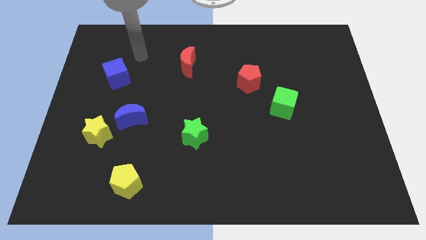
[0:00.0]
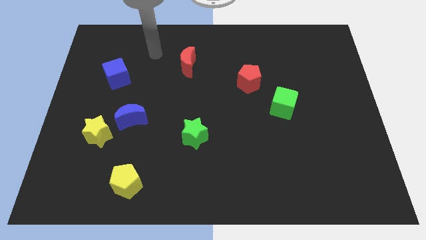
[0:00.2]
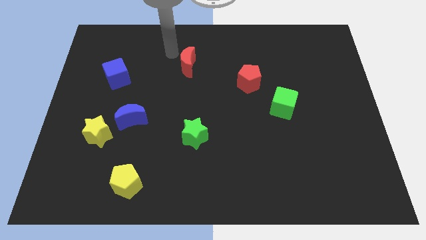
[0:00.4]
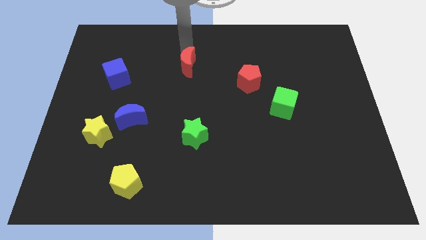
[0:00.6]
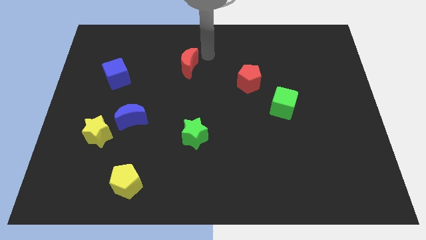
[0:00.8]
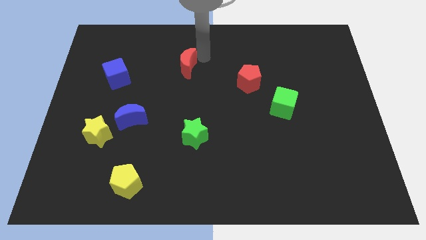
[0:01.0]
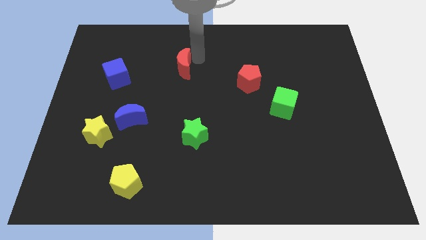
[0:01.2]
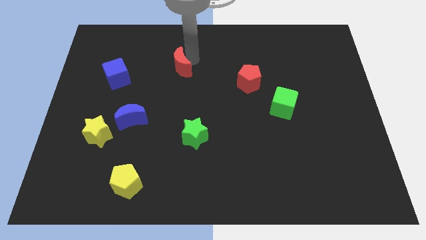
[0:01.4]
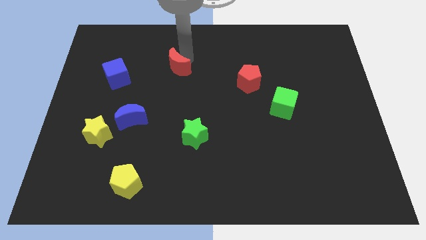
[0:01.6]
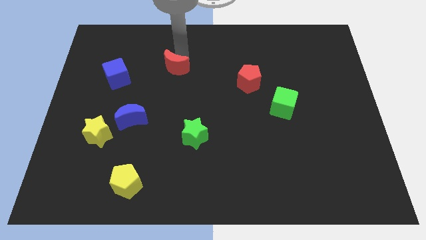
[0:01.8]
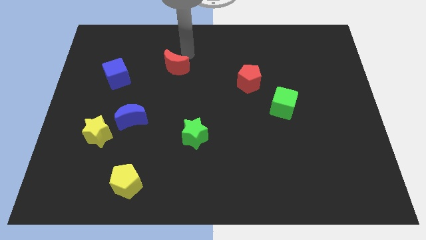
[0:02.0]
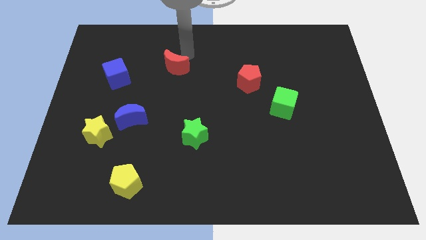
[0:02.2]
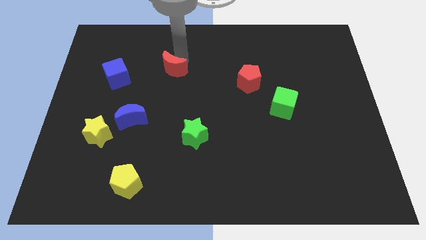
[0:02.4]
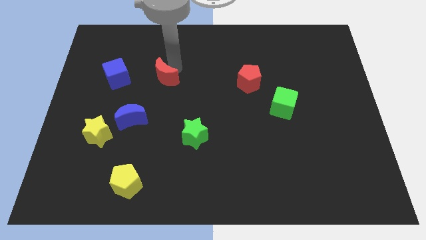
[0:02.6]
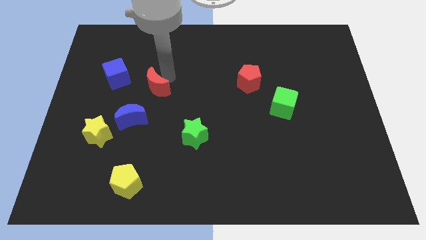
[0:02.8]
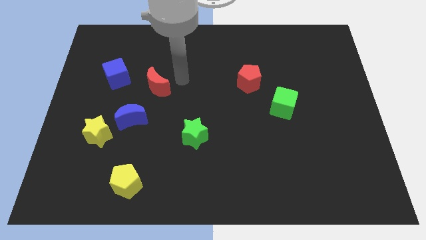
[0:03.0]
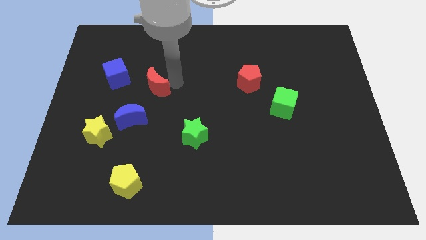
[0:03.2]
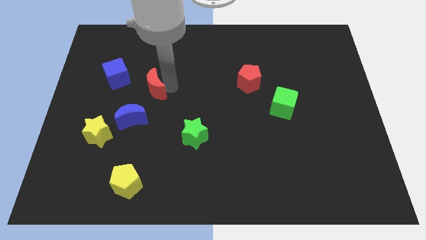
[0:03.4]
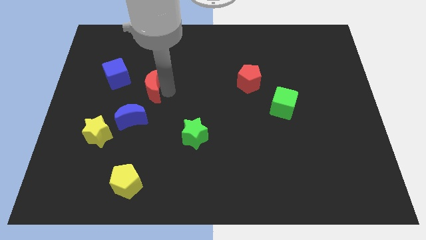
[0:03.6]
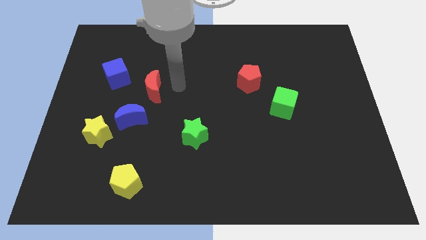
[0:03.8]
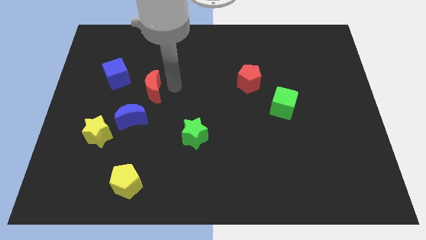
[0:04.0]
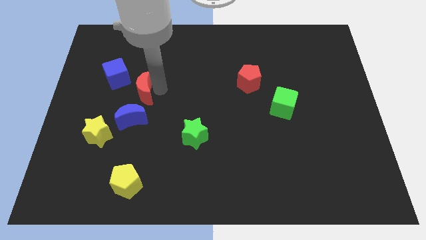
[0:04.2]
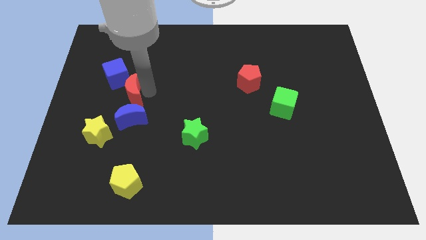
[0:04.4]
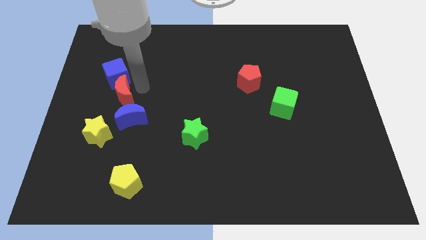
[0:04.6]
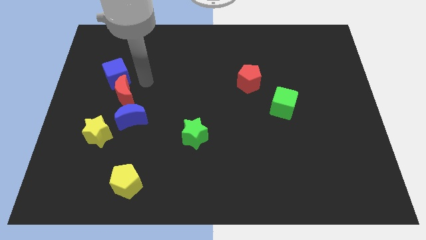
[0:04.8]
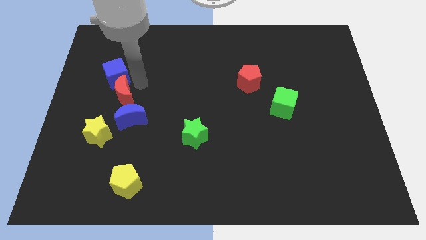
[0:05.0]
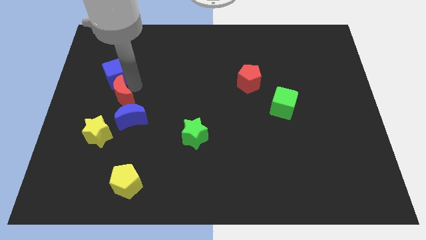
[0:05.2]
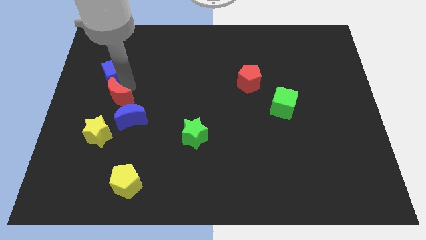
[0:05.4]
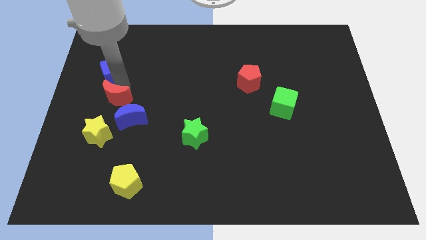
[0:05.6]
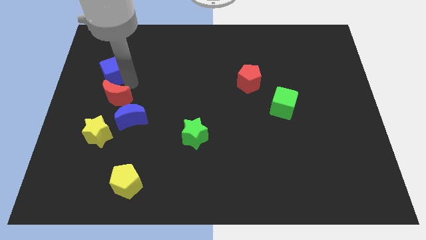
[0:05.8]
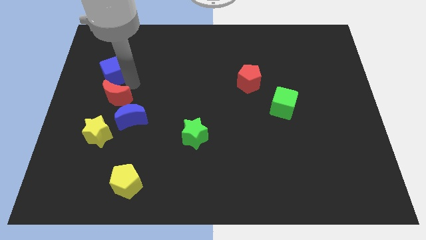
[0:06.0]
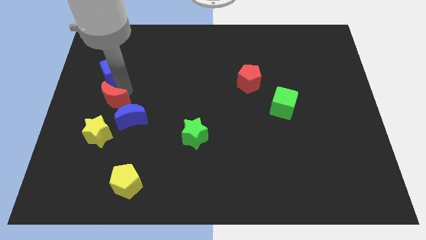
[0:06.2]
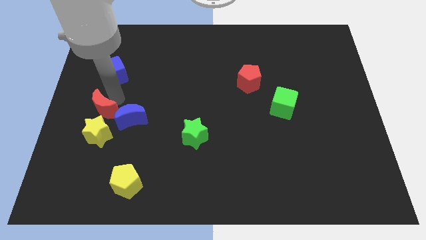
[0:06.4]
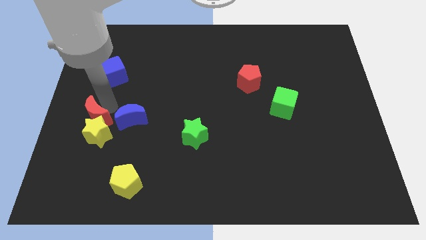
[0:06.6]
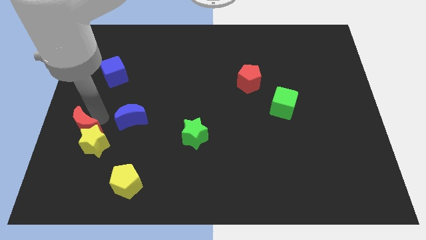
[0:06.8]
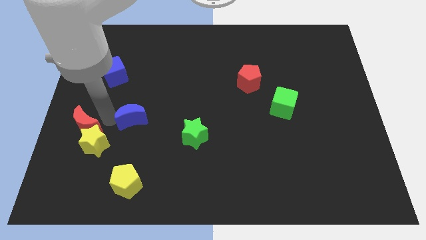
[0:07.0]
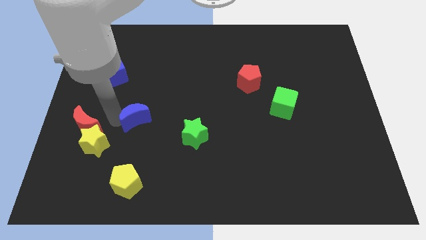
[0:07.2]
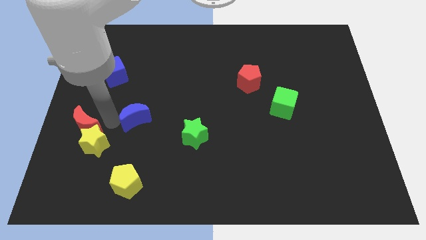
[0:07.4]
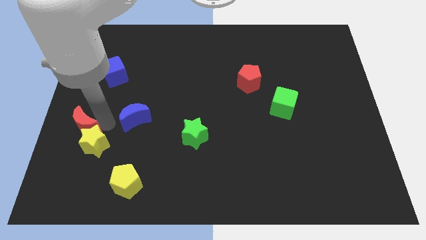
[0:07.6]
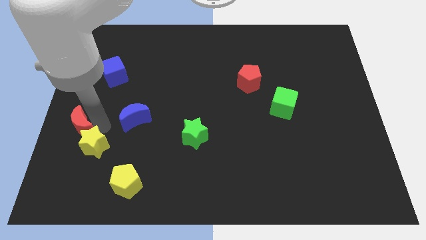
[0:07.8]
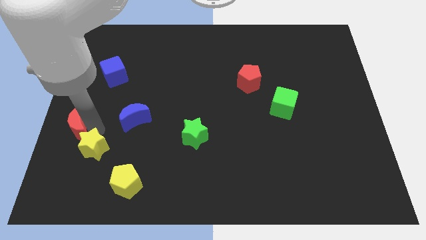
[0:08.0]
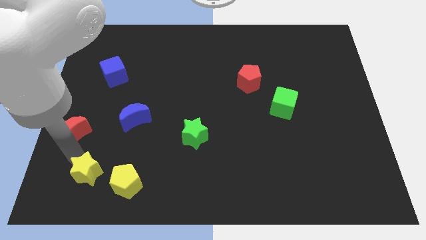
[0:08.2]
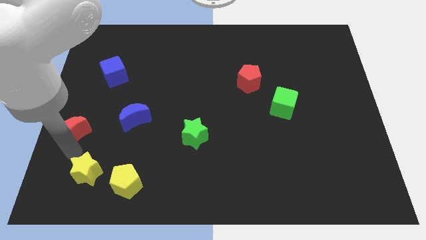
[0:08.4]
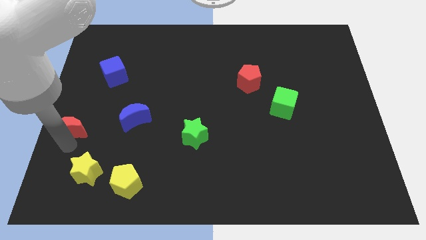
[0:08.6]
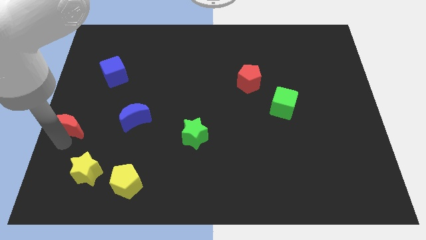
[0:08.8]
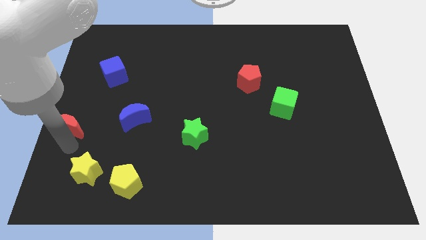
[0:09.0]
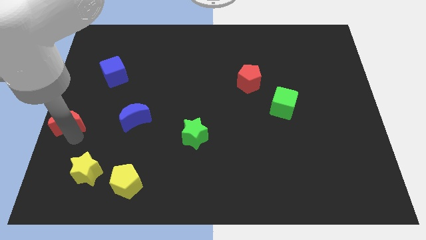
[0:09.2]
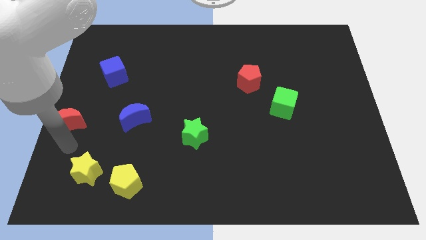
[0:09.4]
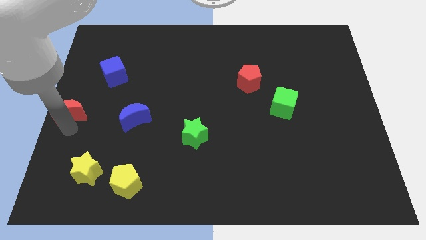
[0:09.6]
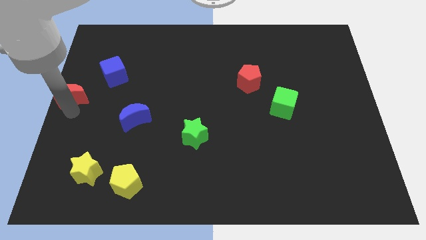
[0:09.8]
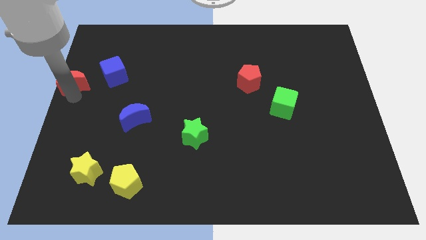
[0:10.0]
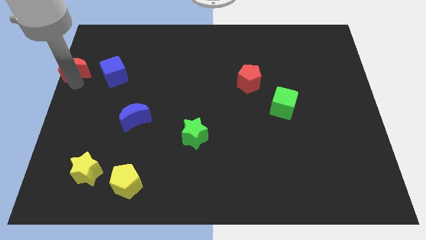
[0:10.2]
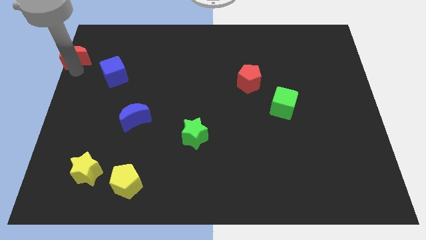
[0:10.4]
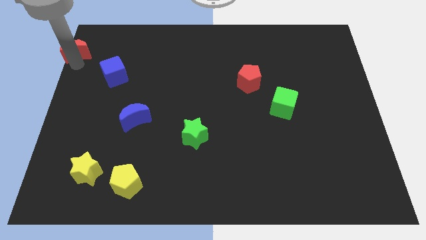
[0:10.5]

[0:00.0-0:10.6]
put the red moon to the top left corner

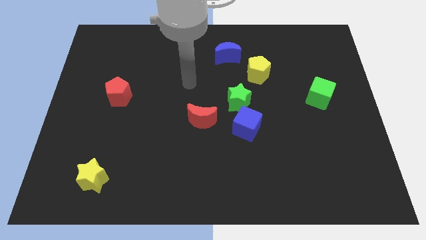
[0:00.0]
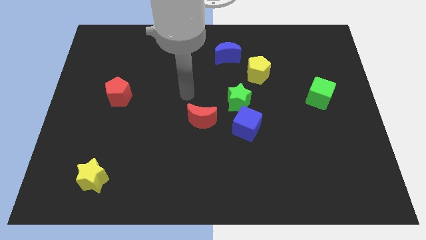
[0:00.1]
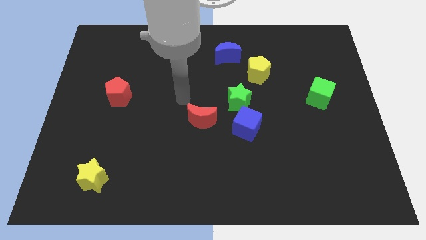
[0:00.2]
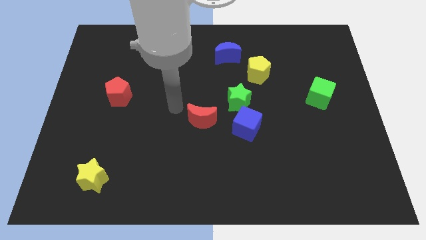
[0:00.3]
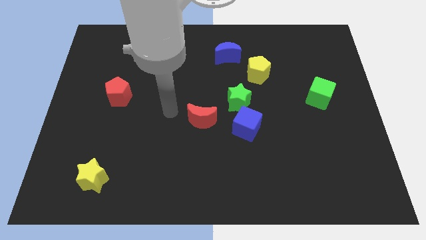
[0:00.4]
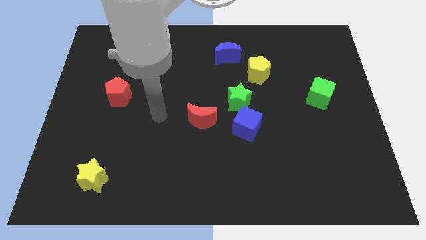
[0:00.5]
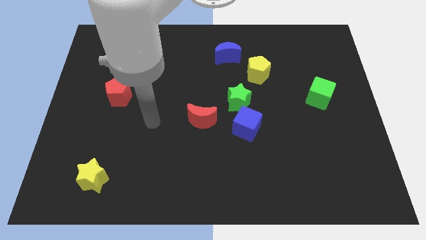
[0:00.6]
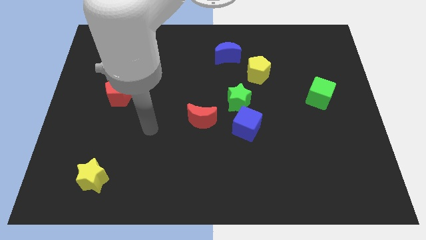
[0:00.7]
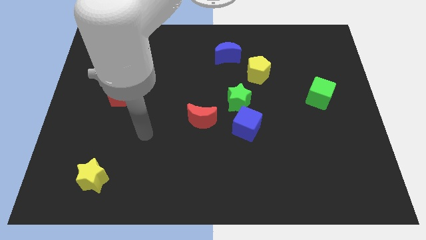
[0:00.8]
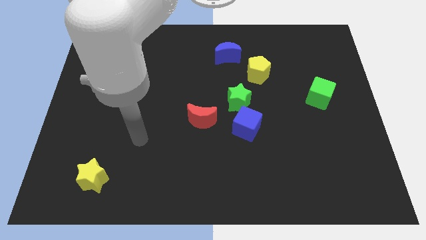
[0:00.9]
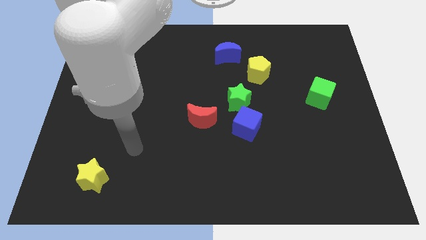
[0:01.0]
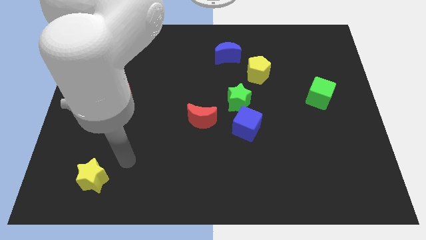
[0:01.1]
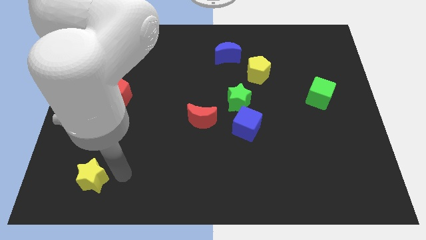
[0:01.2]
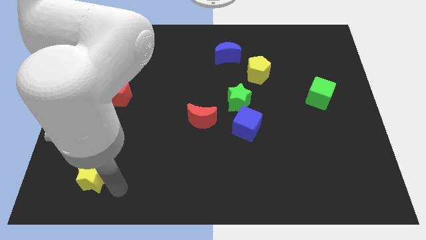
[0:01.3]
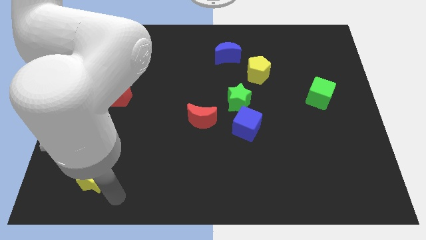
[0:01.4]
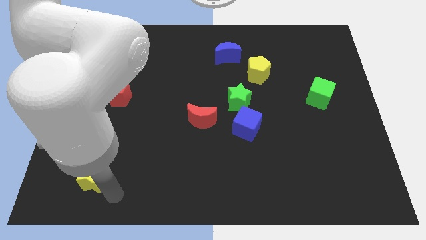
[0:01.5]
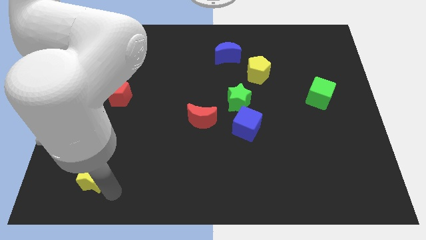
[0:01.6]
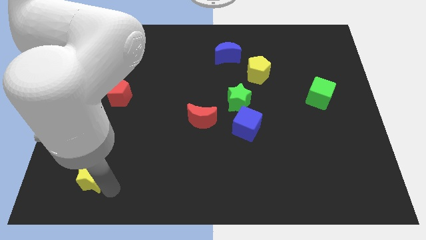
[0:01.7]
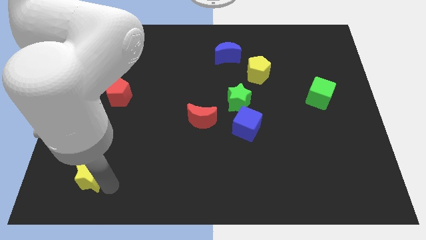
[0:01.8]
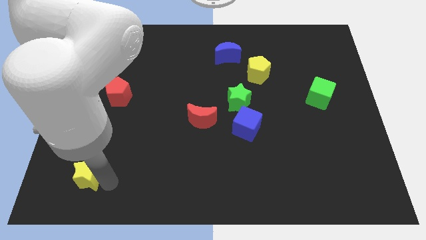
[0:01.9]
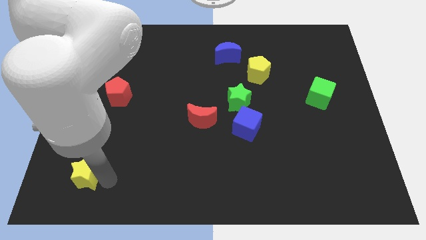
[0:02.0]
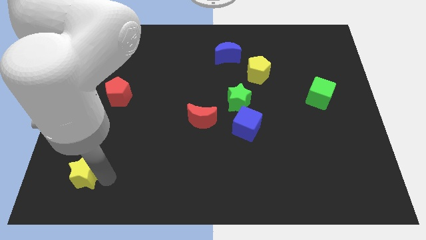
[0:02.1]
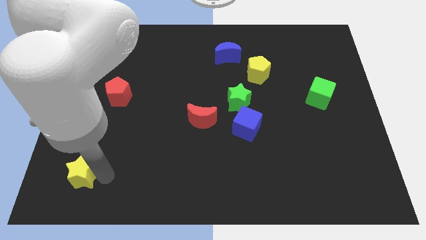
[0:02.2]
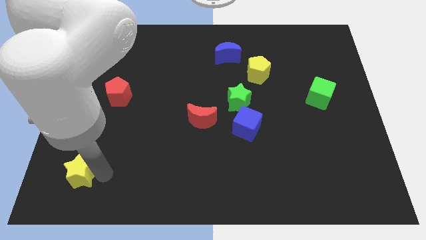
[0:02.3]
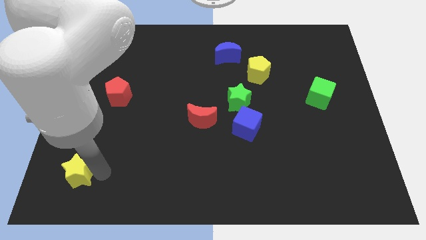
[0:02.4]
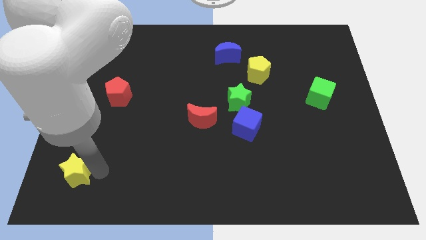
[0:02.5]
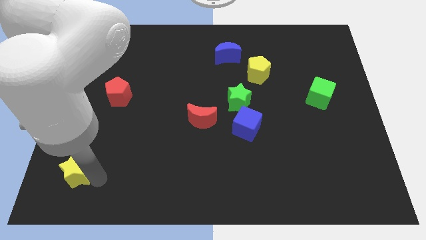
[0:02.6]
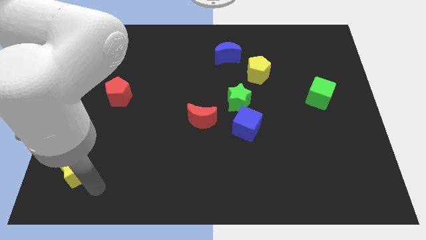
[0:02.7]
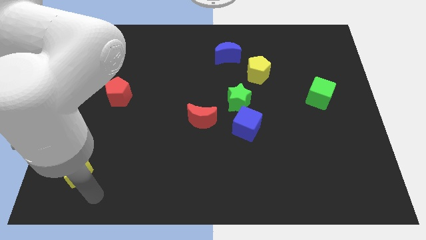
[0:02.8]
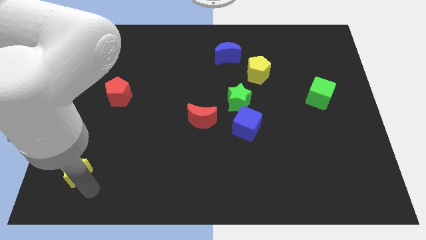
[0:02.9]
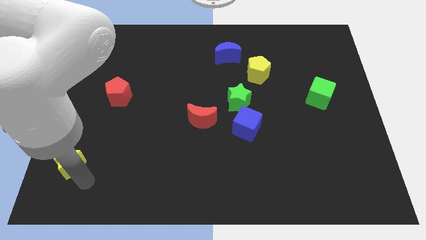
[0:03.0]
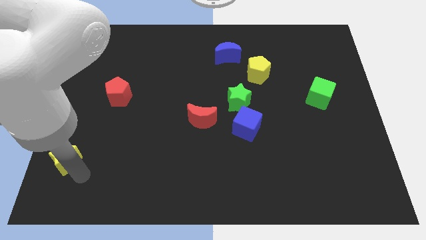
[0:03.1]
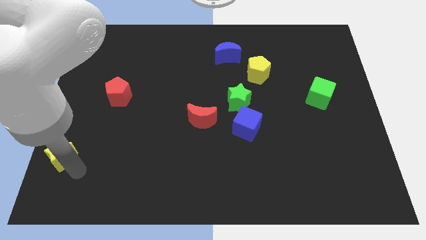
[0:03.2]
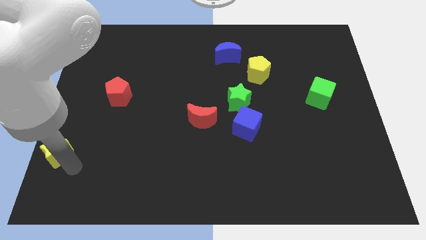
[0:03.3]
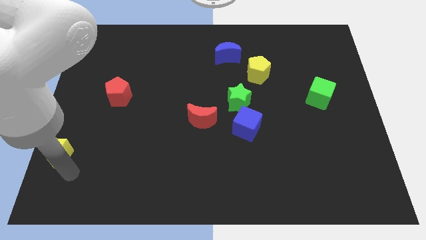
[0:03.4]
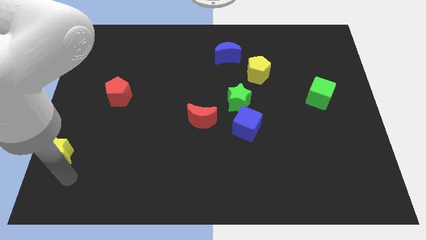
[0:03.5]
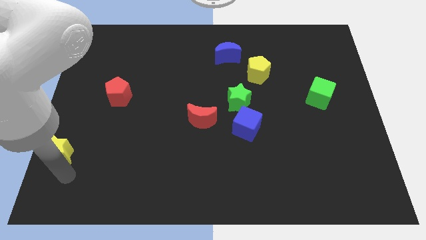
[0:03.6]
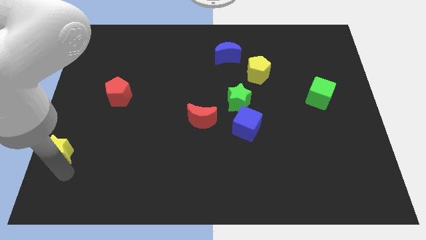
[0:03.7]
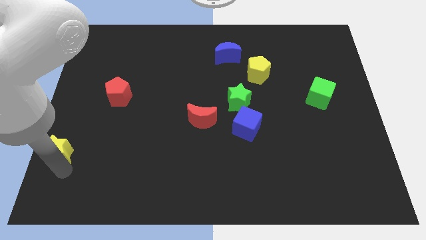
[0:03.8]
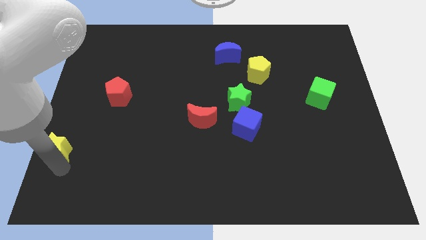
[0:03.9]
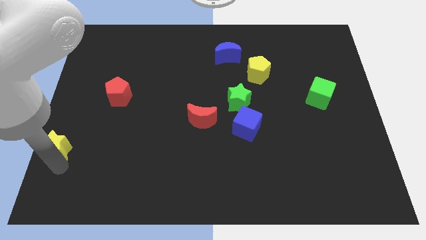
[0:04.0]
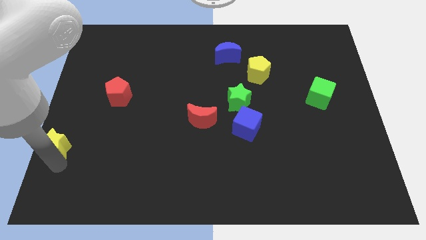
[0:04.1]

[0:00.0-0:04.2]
slide the yellow star to the left side of the board
